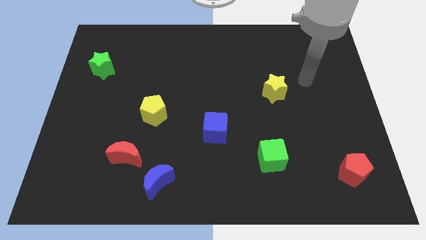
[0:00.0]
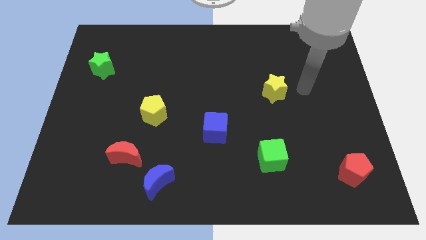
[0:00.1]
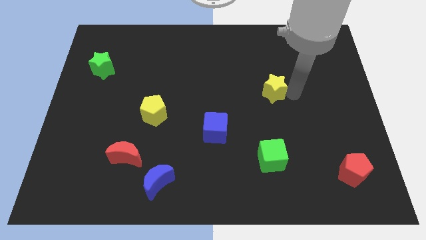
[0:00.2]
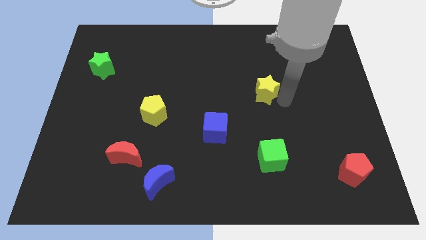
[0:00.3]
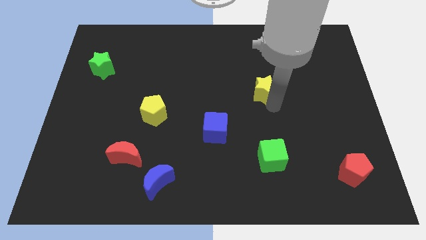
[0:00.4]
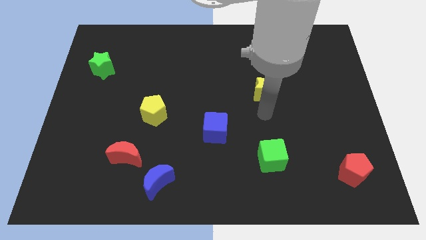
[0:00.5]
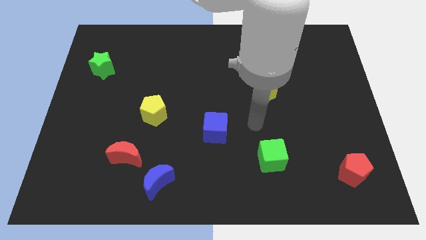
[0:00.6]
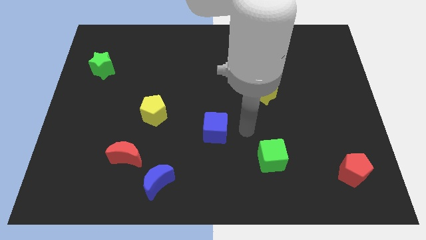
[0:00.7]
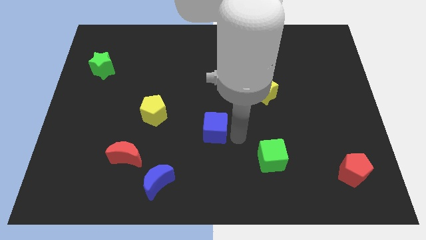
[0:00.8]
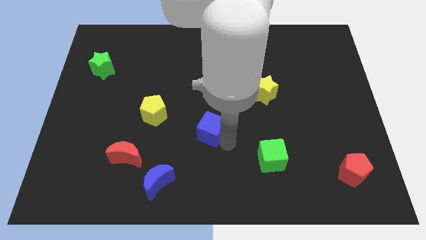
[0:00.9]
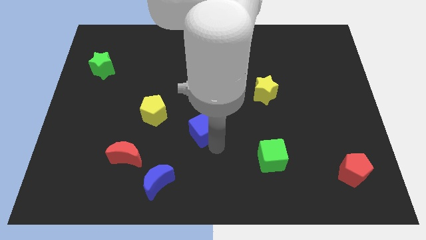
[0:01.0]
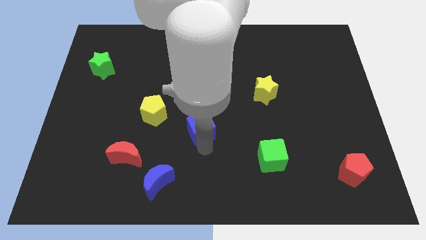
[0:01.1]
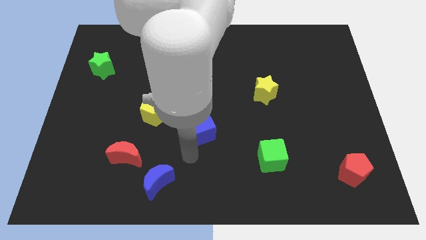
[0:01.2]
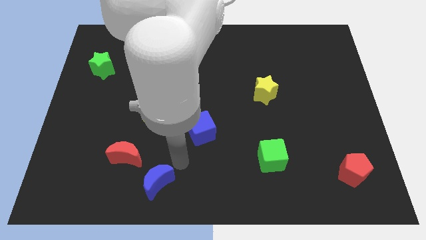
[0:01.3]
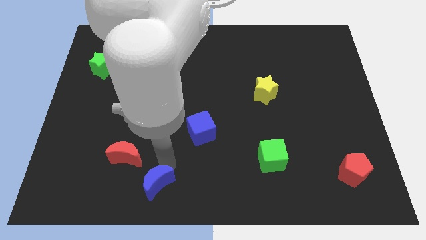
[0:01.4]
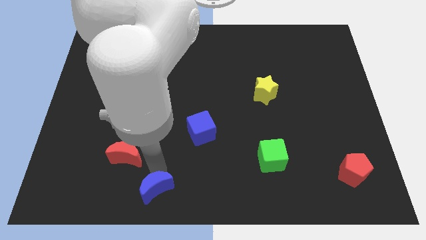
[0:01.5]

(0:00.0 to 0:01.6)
pull the red moon apart from the blue moon

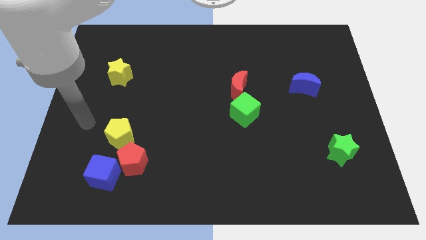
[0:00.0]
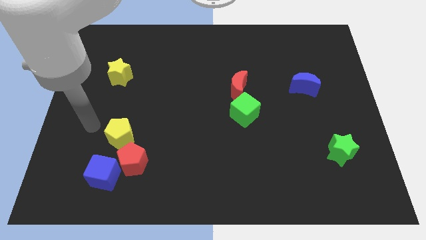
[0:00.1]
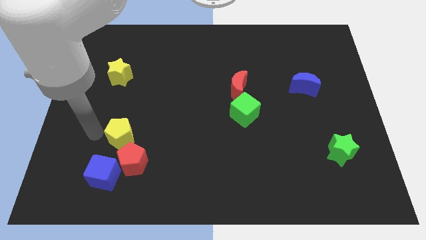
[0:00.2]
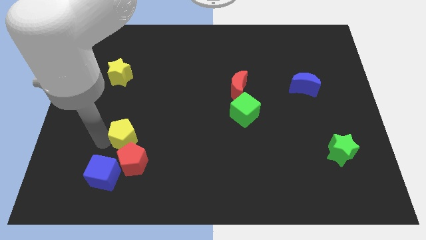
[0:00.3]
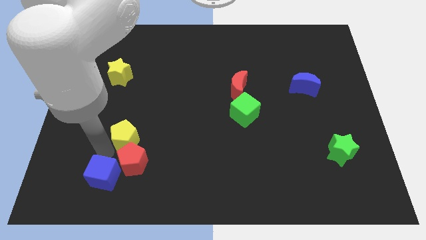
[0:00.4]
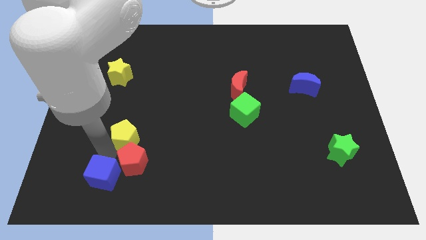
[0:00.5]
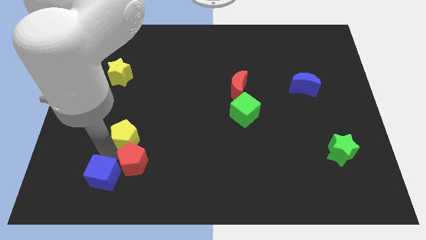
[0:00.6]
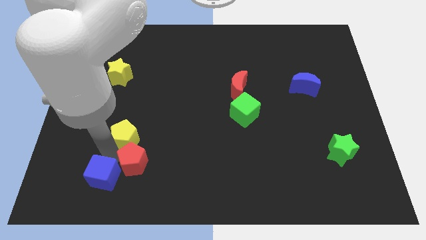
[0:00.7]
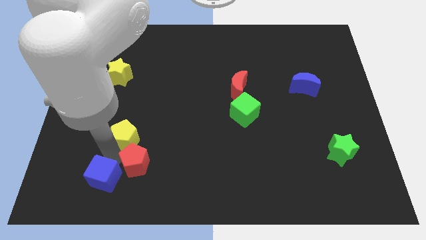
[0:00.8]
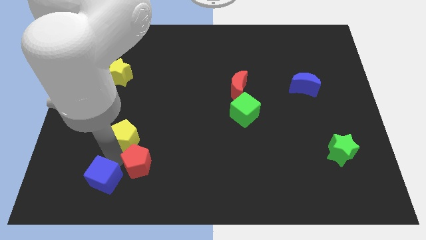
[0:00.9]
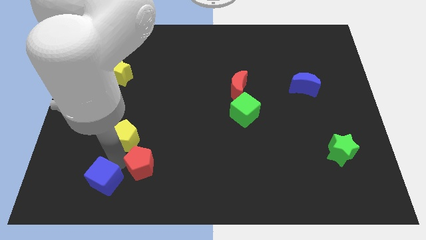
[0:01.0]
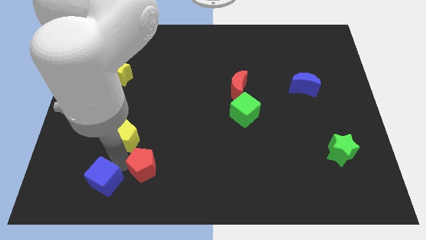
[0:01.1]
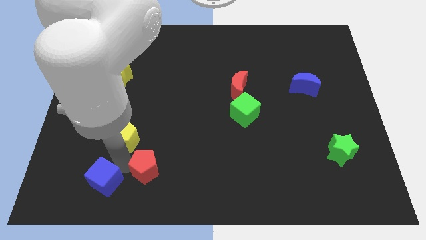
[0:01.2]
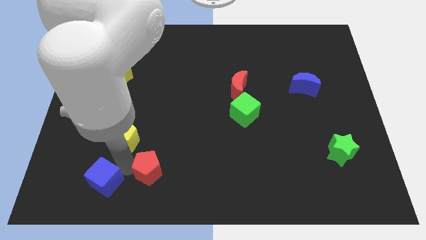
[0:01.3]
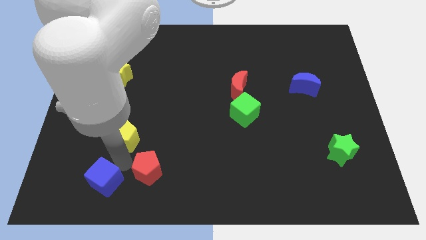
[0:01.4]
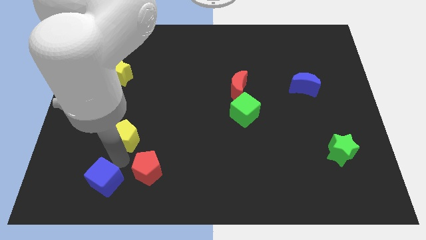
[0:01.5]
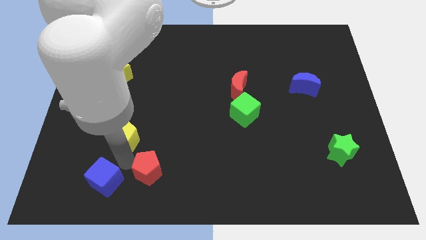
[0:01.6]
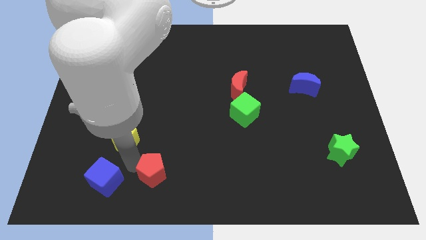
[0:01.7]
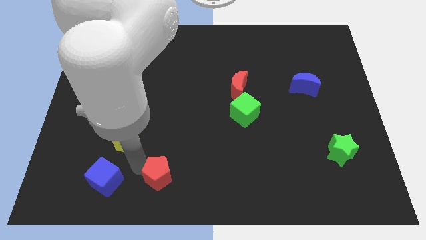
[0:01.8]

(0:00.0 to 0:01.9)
move the red pentagon away from the blue cube and yellow pentagon

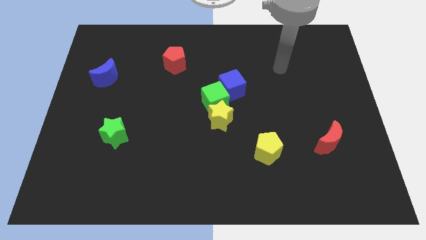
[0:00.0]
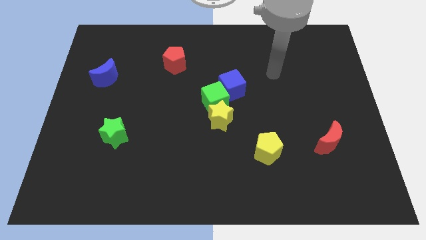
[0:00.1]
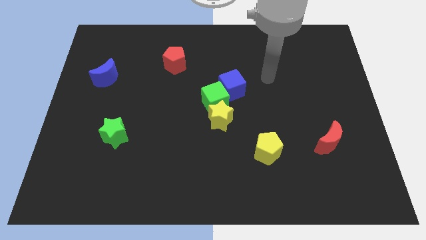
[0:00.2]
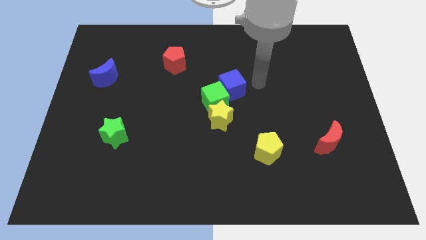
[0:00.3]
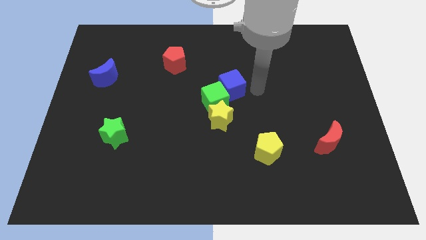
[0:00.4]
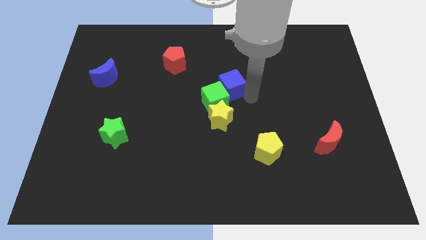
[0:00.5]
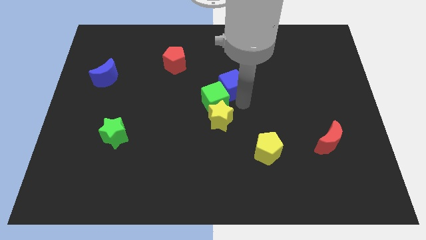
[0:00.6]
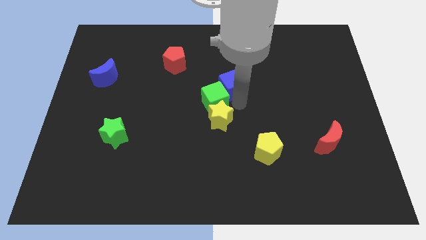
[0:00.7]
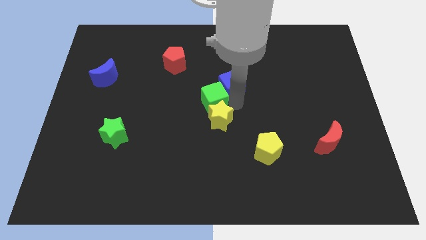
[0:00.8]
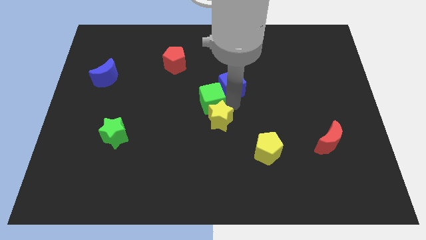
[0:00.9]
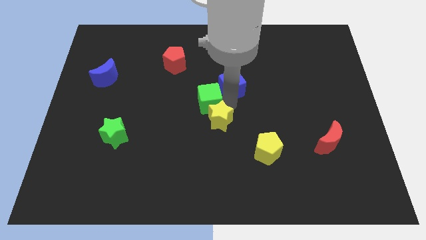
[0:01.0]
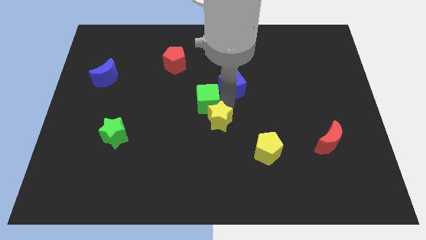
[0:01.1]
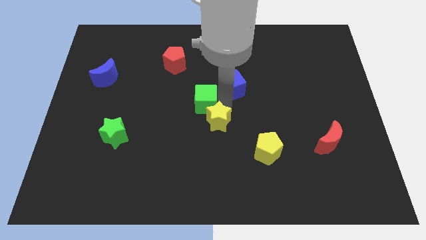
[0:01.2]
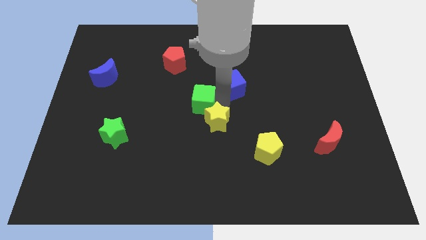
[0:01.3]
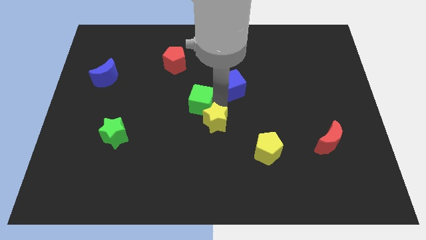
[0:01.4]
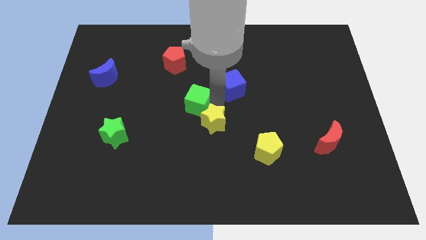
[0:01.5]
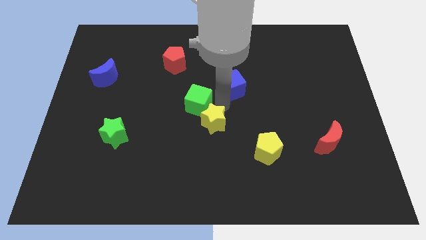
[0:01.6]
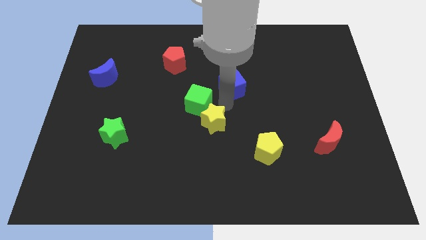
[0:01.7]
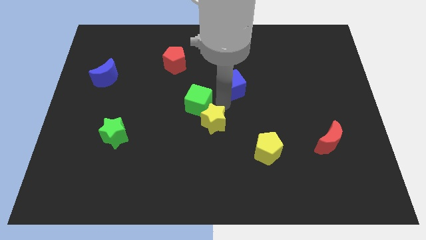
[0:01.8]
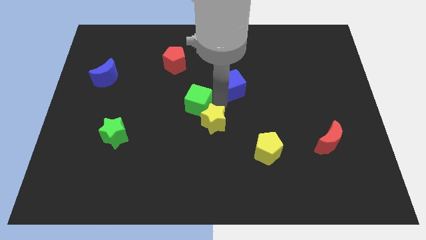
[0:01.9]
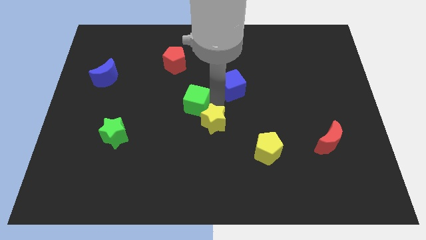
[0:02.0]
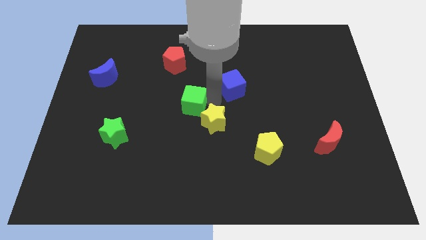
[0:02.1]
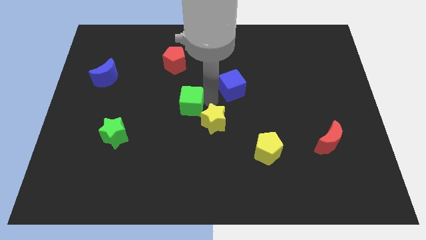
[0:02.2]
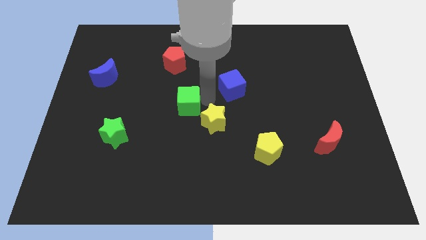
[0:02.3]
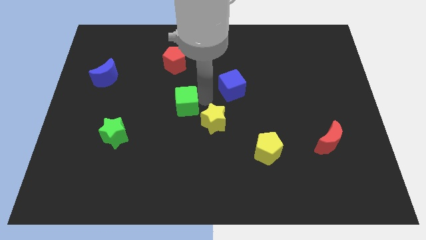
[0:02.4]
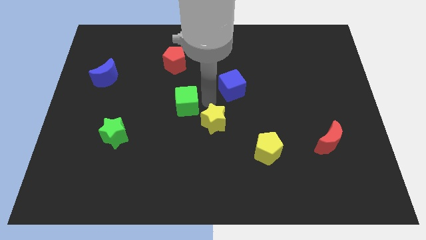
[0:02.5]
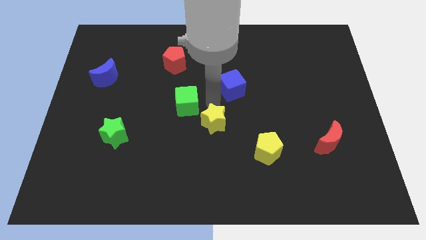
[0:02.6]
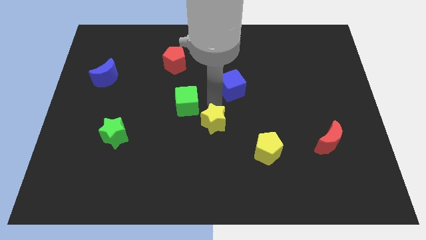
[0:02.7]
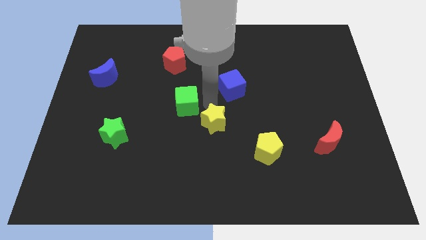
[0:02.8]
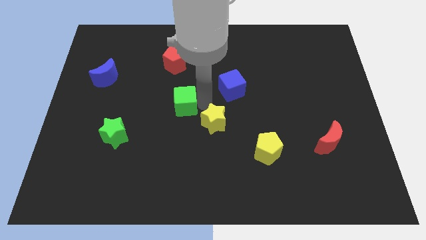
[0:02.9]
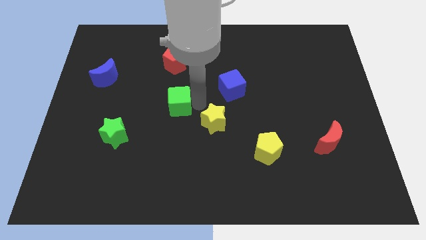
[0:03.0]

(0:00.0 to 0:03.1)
separate the green cube from the yellow star and blue cube

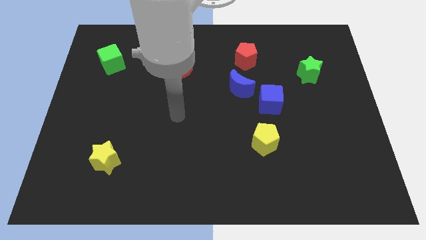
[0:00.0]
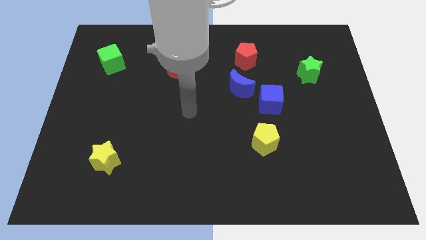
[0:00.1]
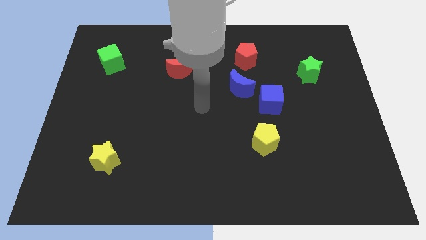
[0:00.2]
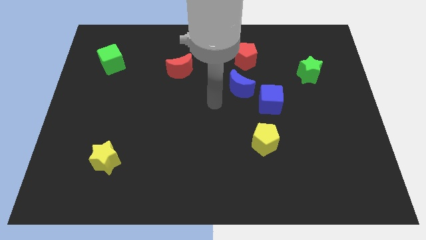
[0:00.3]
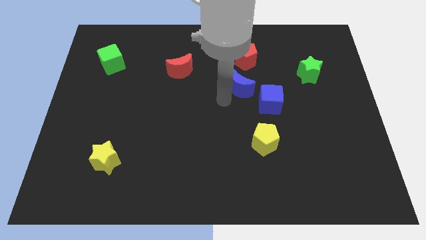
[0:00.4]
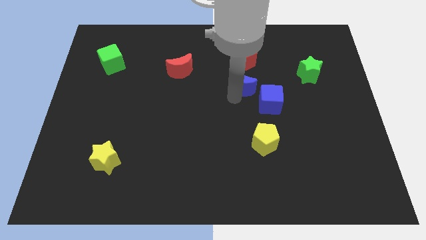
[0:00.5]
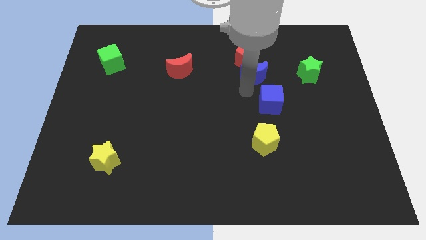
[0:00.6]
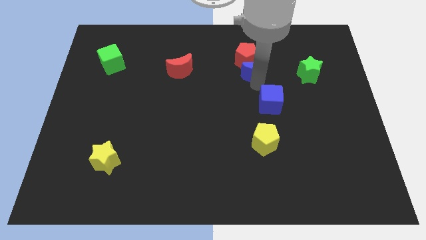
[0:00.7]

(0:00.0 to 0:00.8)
pull the blue cube apart from the blue moon

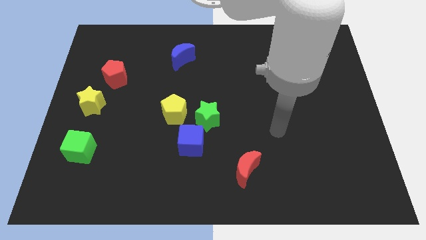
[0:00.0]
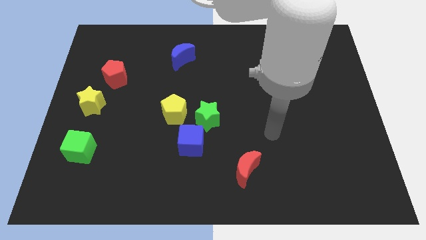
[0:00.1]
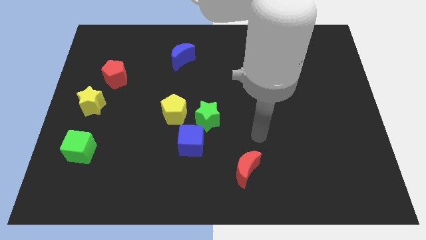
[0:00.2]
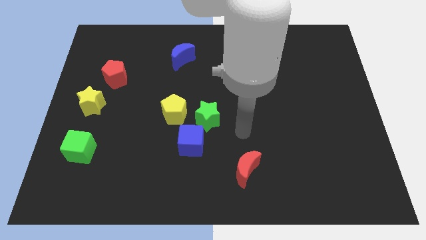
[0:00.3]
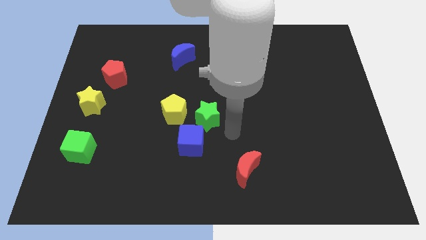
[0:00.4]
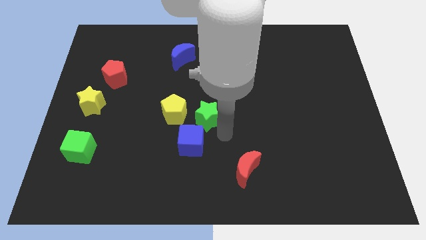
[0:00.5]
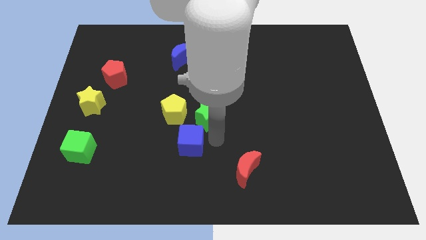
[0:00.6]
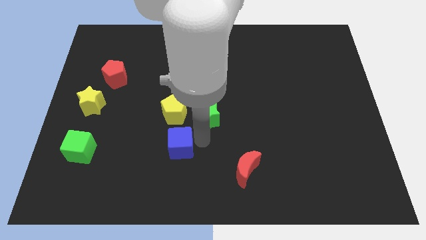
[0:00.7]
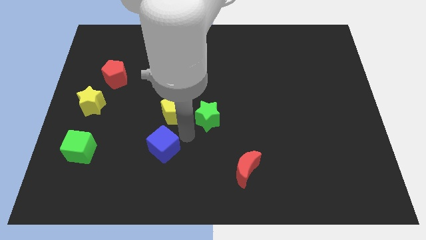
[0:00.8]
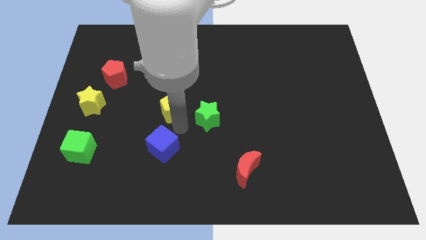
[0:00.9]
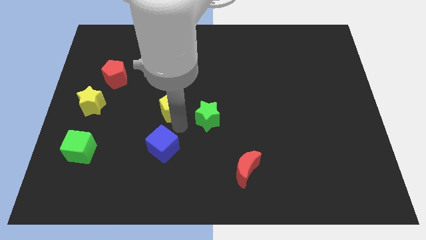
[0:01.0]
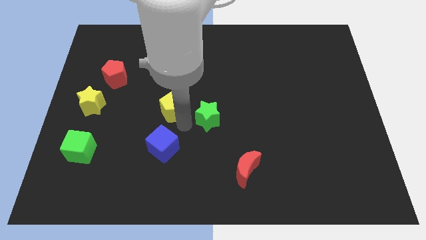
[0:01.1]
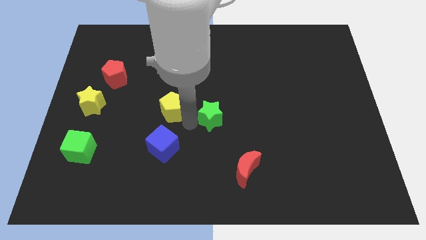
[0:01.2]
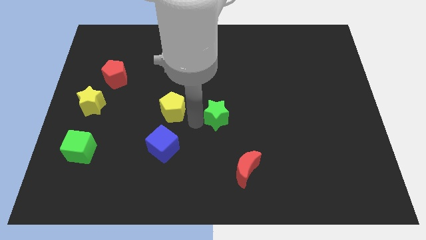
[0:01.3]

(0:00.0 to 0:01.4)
move the green star away from the blue cube and yellow pentagon

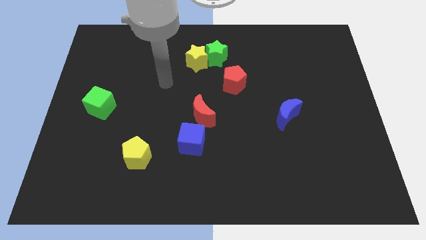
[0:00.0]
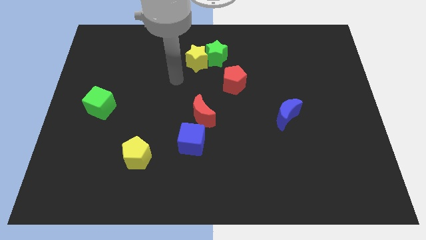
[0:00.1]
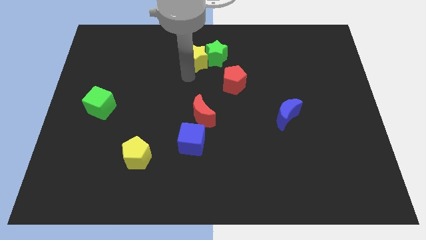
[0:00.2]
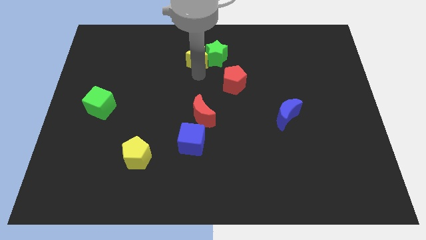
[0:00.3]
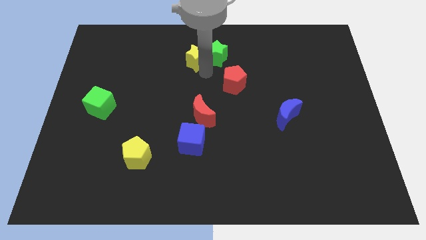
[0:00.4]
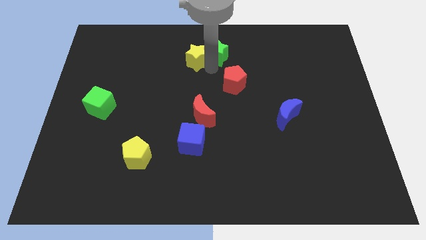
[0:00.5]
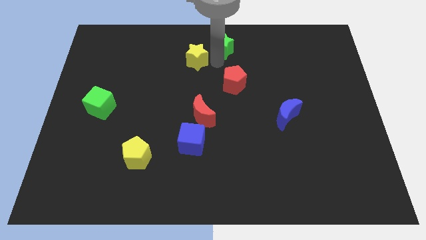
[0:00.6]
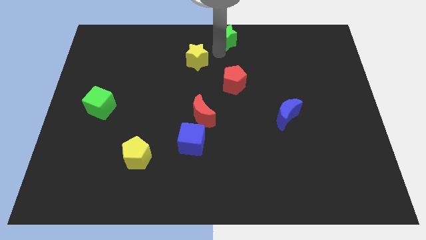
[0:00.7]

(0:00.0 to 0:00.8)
separate the yellow star from the green star
